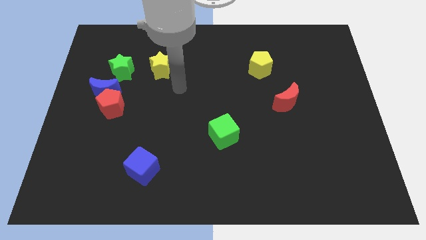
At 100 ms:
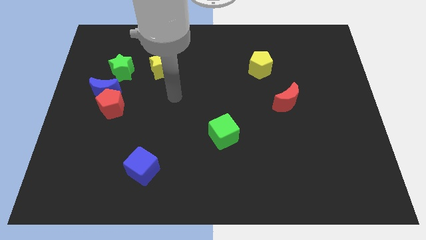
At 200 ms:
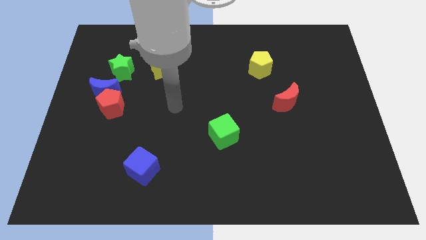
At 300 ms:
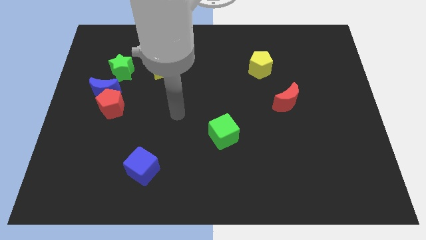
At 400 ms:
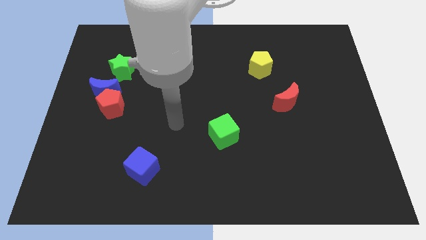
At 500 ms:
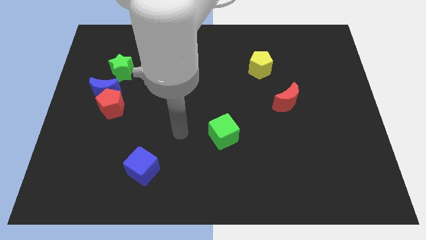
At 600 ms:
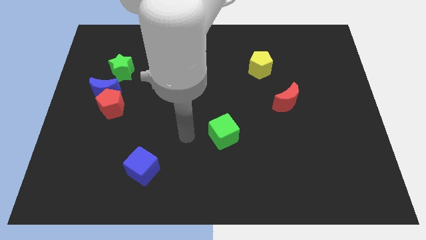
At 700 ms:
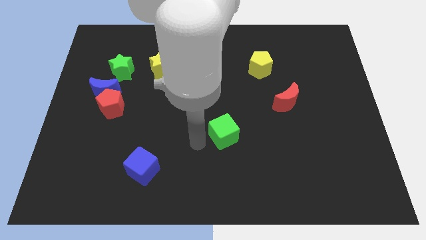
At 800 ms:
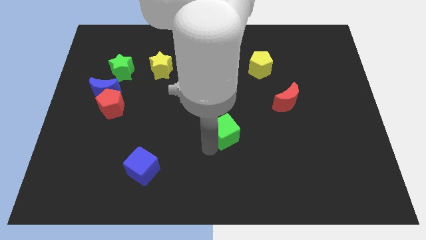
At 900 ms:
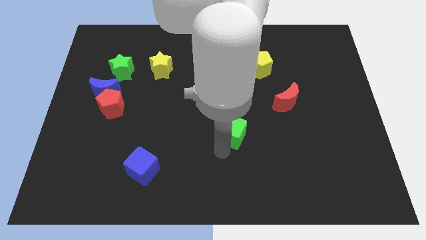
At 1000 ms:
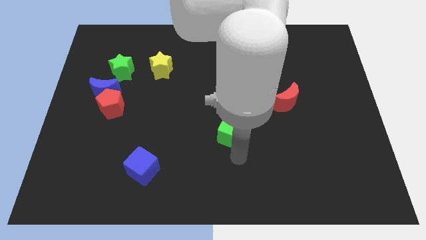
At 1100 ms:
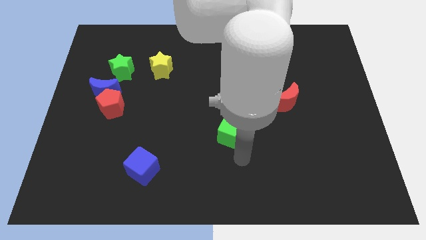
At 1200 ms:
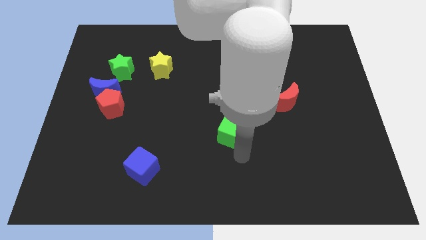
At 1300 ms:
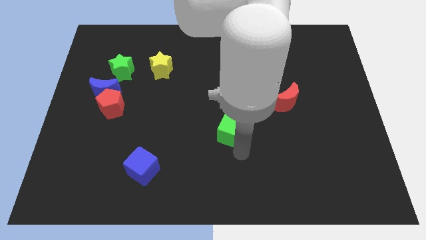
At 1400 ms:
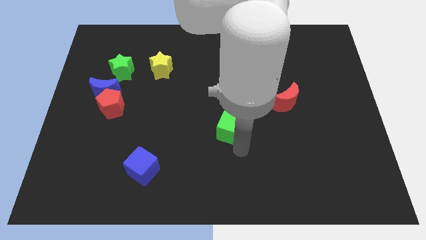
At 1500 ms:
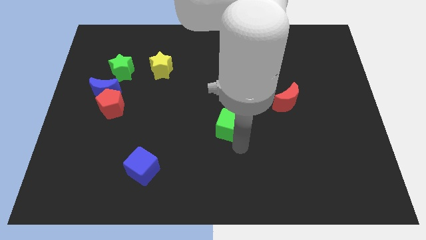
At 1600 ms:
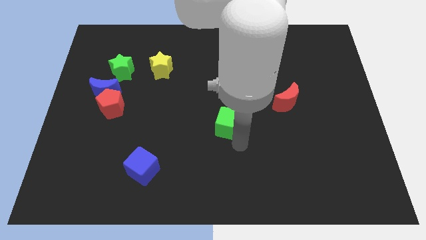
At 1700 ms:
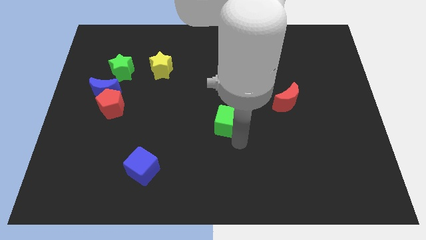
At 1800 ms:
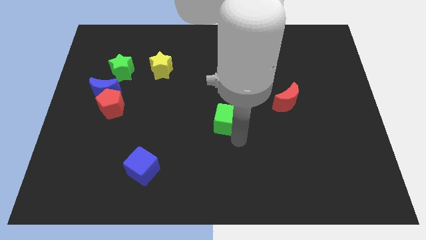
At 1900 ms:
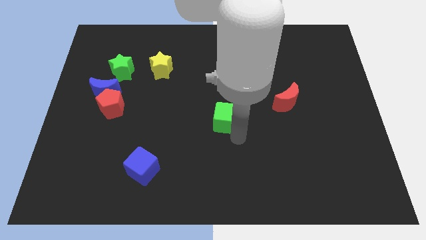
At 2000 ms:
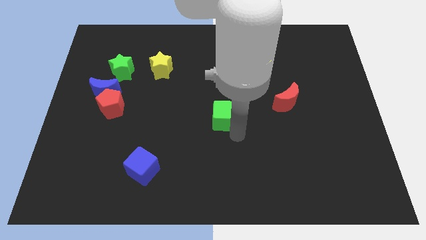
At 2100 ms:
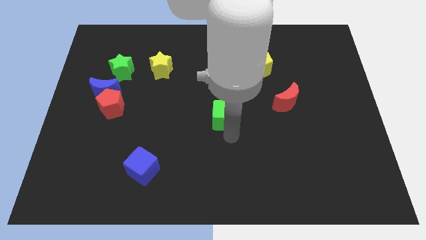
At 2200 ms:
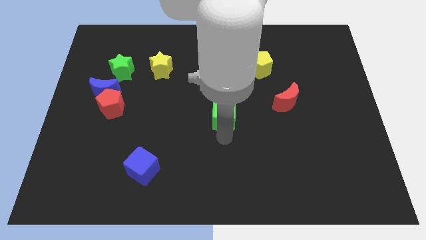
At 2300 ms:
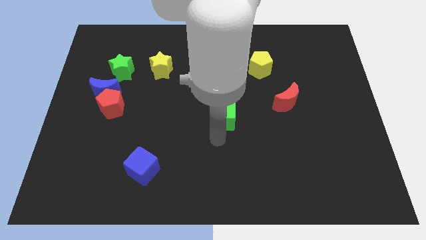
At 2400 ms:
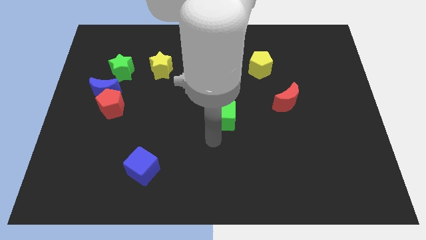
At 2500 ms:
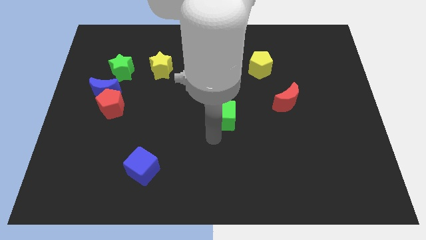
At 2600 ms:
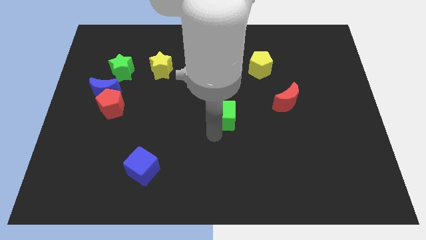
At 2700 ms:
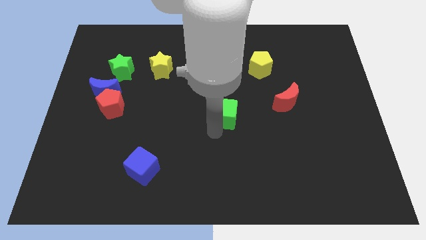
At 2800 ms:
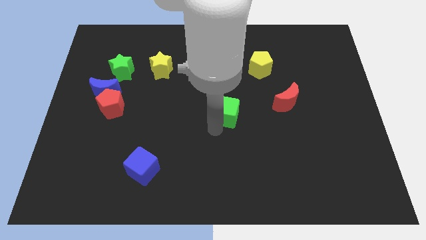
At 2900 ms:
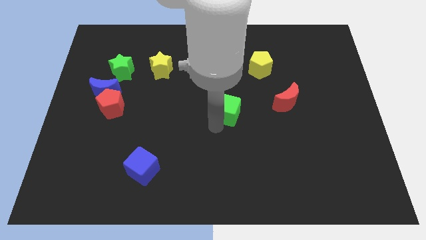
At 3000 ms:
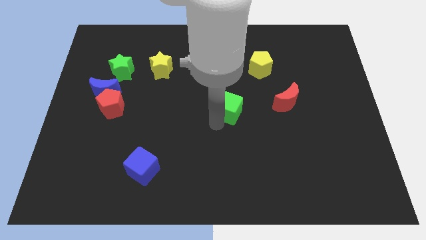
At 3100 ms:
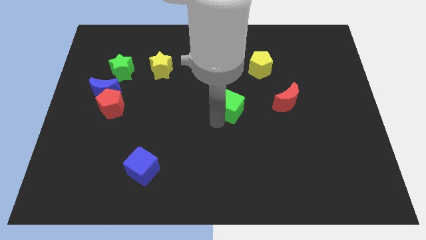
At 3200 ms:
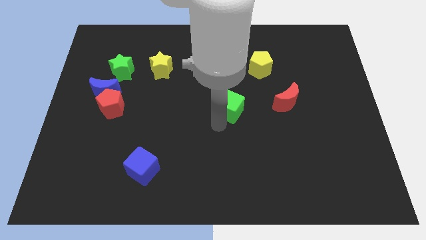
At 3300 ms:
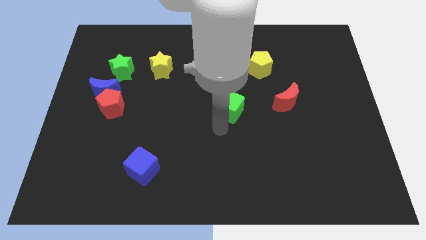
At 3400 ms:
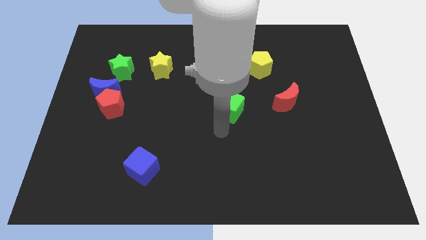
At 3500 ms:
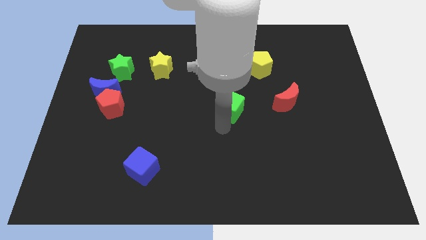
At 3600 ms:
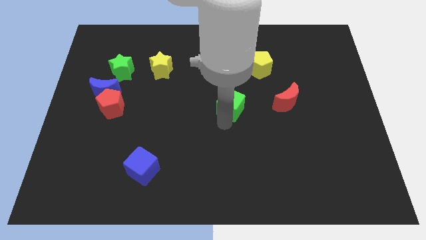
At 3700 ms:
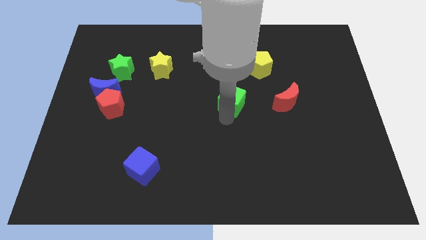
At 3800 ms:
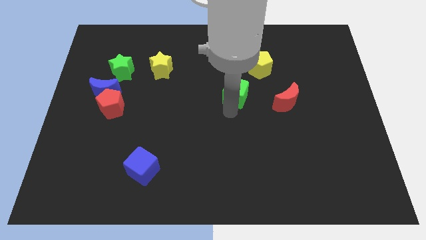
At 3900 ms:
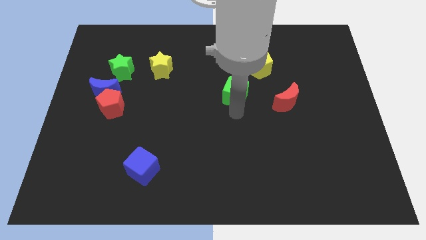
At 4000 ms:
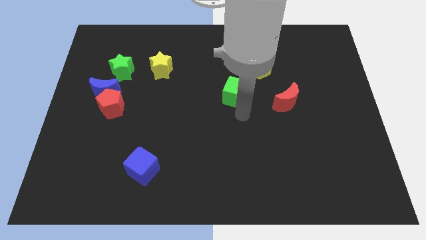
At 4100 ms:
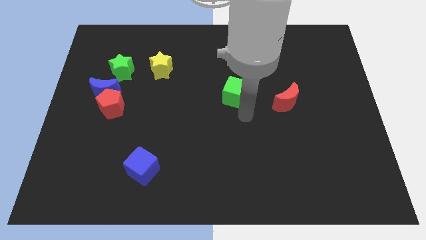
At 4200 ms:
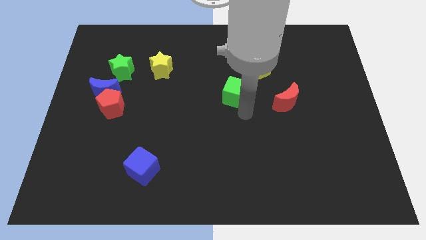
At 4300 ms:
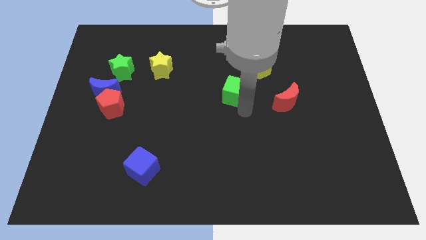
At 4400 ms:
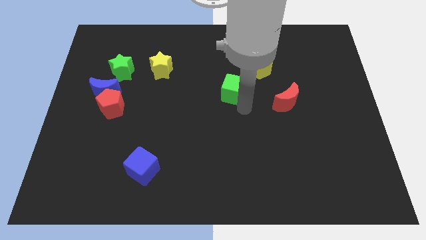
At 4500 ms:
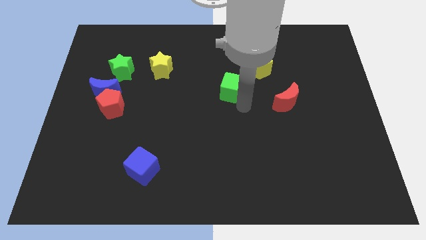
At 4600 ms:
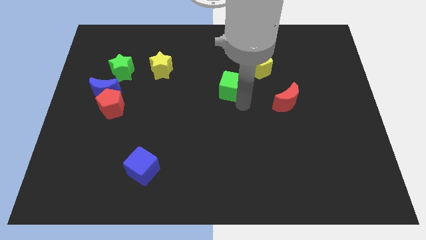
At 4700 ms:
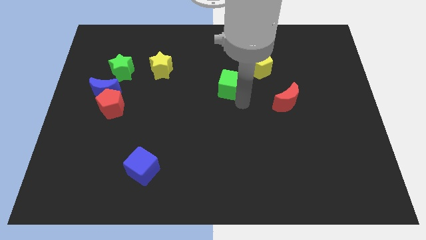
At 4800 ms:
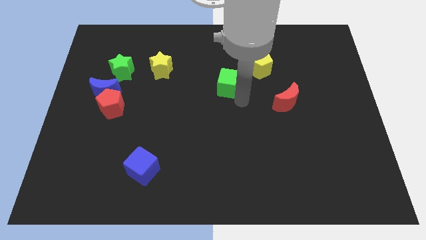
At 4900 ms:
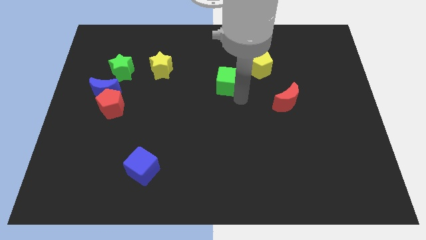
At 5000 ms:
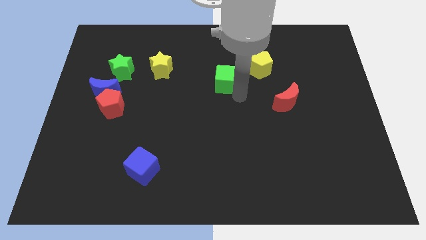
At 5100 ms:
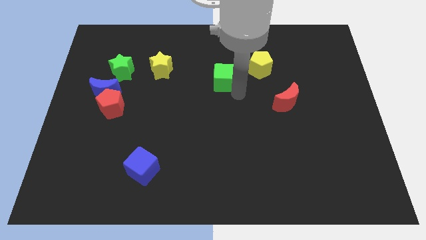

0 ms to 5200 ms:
move the green cube left of the yellow pentagon

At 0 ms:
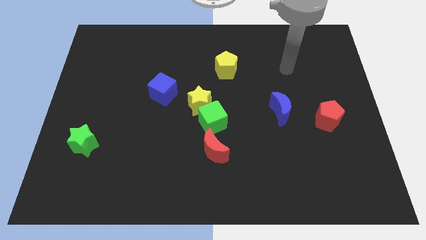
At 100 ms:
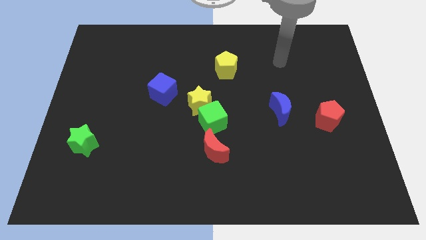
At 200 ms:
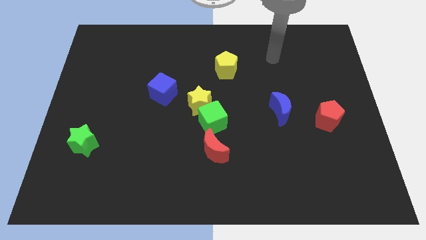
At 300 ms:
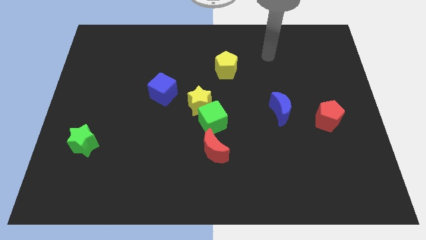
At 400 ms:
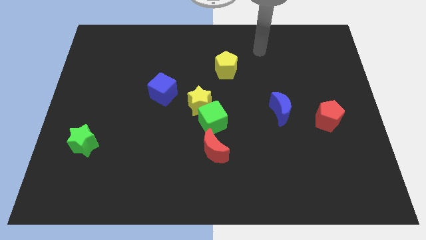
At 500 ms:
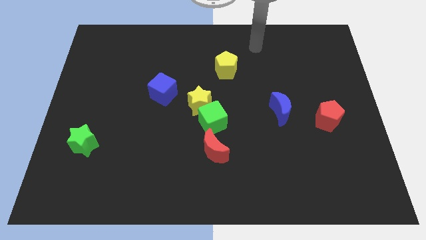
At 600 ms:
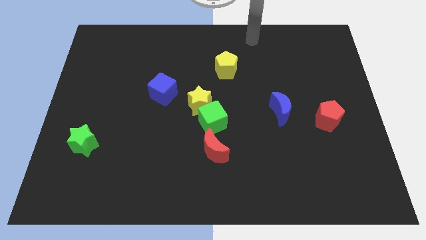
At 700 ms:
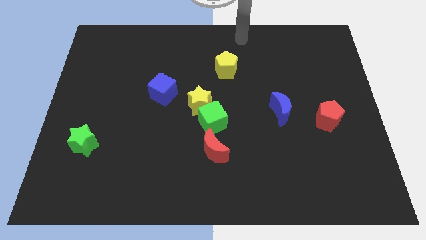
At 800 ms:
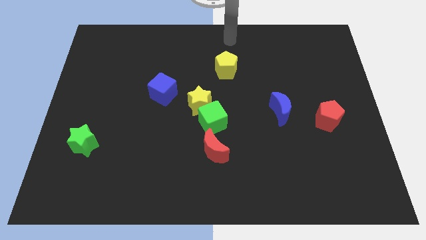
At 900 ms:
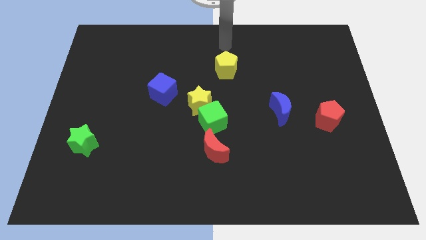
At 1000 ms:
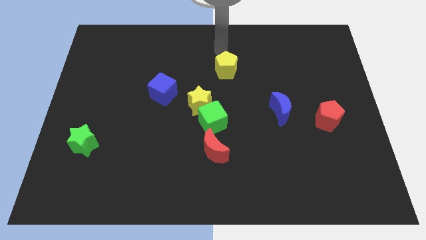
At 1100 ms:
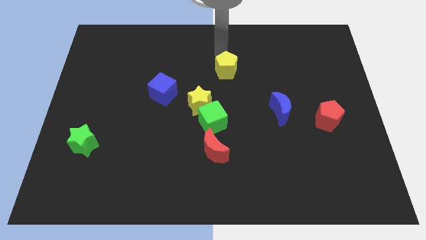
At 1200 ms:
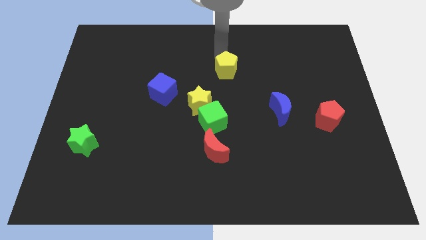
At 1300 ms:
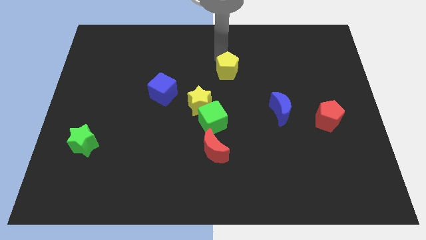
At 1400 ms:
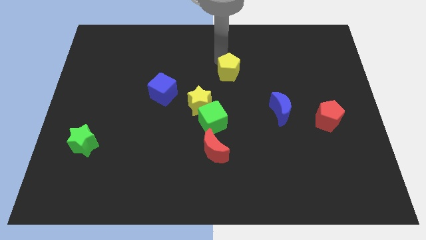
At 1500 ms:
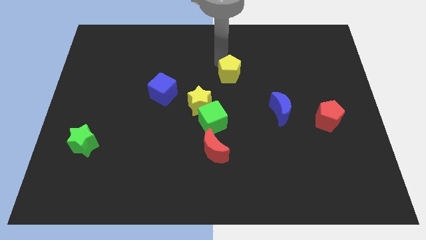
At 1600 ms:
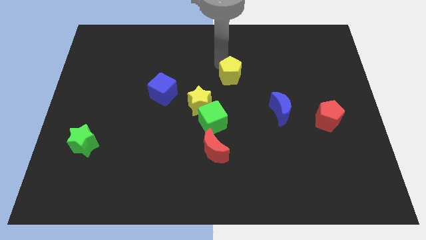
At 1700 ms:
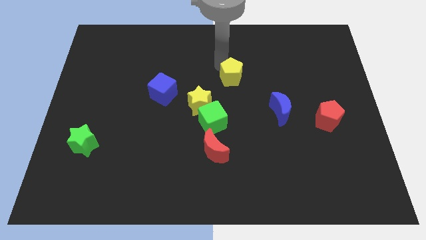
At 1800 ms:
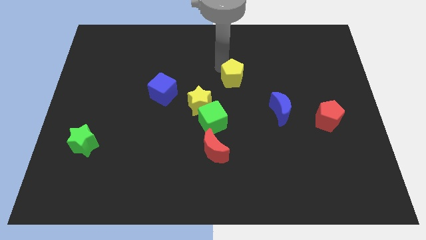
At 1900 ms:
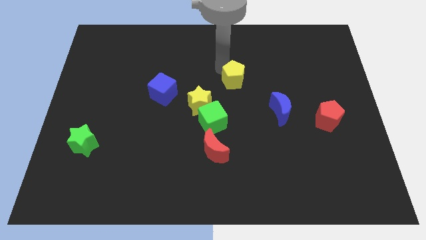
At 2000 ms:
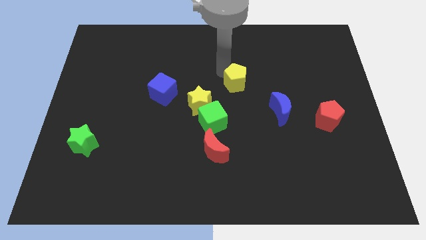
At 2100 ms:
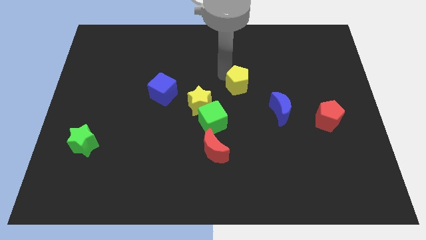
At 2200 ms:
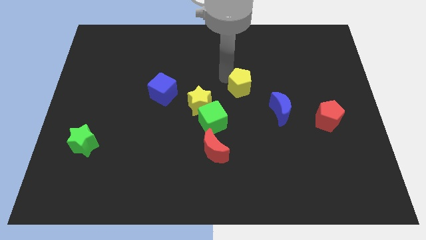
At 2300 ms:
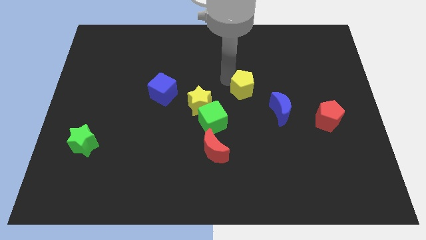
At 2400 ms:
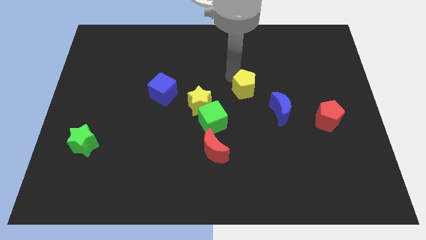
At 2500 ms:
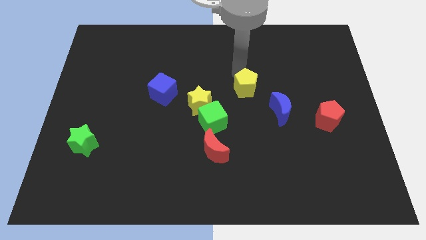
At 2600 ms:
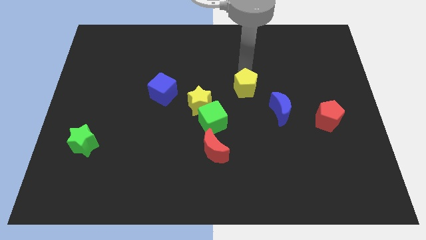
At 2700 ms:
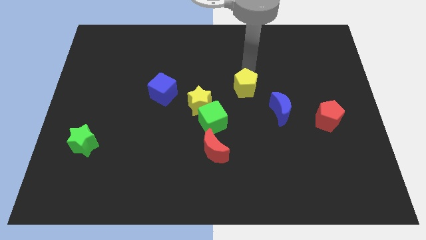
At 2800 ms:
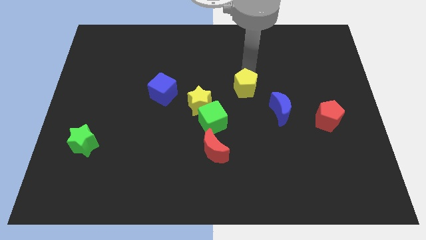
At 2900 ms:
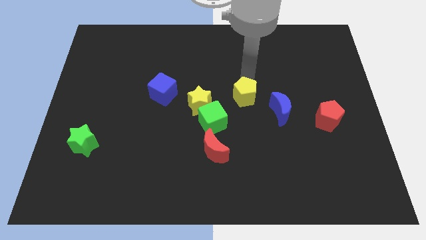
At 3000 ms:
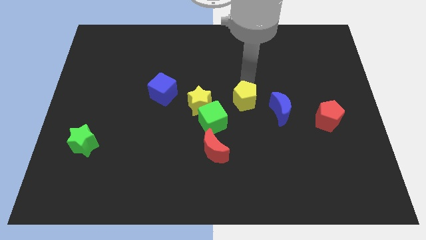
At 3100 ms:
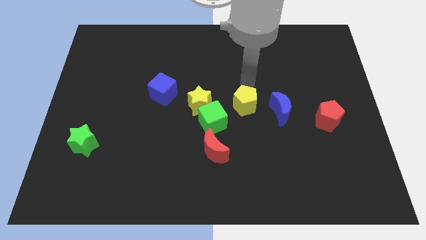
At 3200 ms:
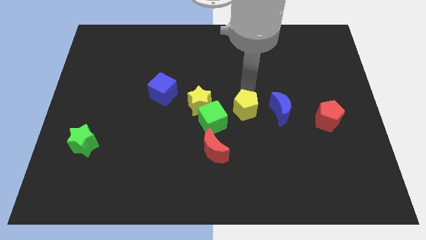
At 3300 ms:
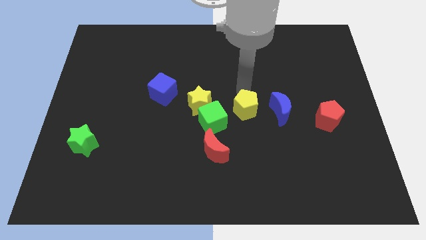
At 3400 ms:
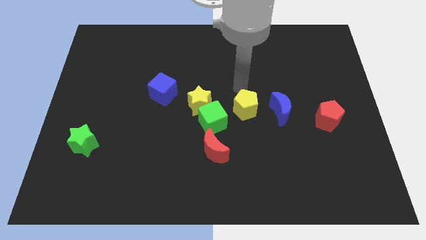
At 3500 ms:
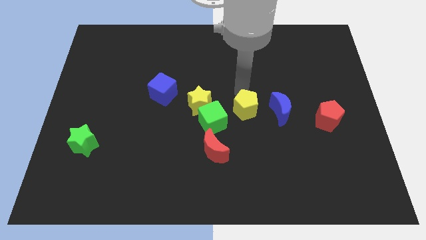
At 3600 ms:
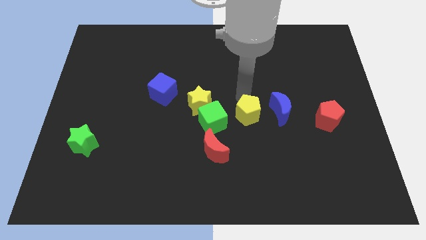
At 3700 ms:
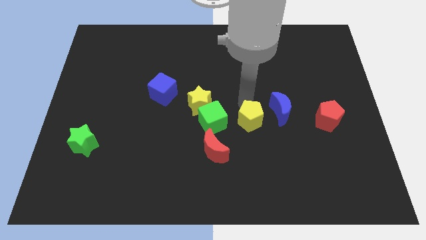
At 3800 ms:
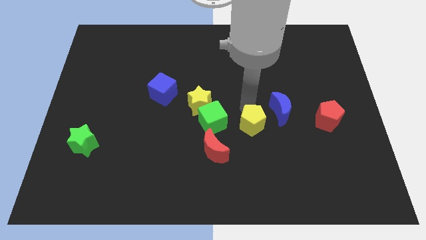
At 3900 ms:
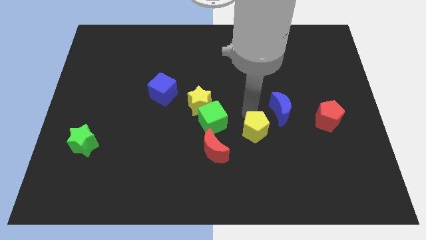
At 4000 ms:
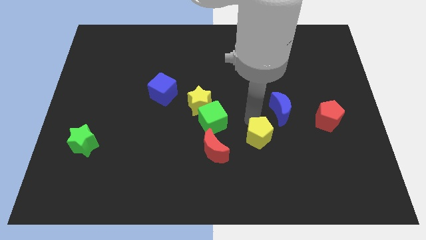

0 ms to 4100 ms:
slide the yellow pentagon right of the red moon
